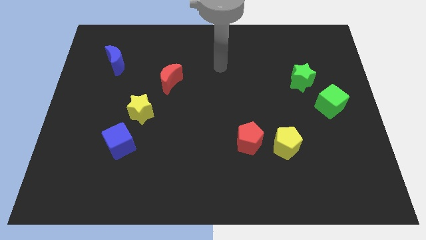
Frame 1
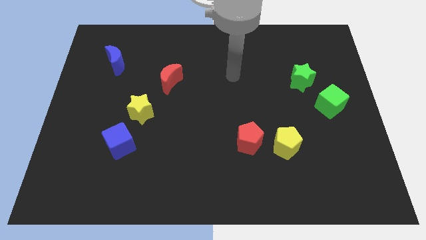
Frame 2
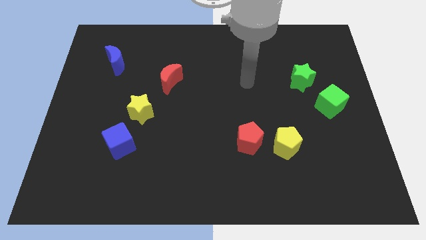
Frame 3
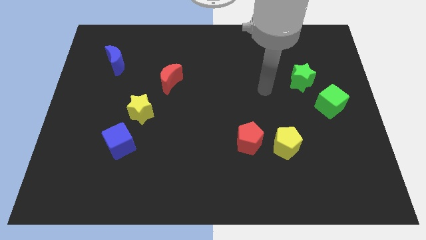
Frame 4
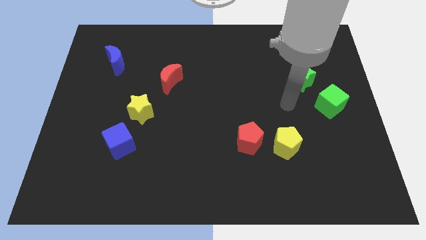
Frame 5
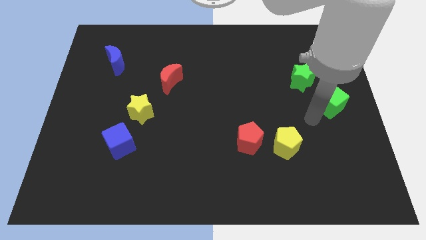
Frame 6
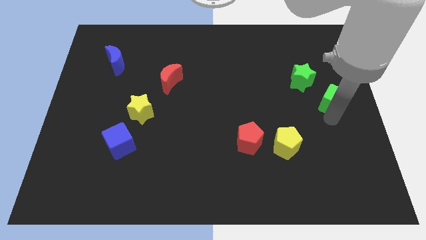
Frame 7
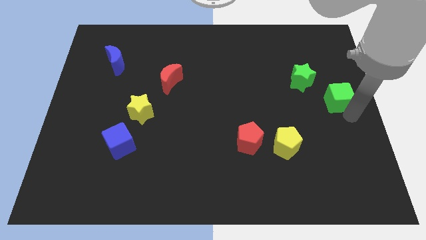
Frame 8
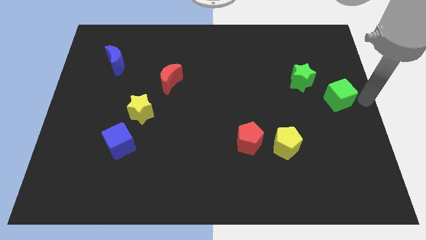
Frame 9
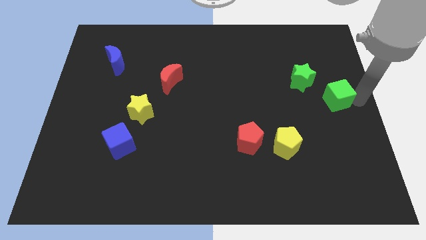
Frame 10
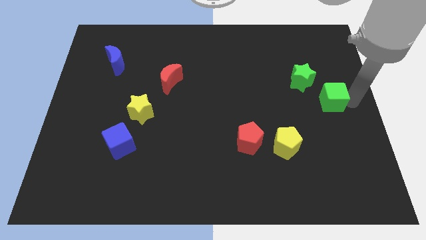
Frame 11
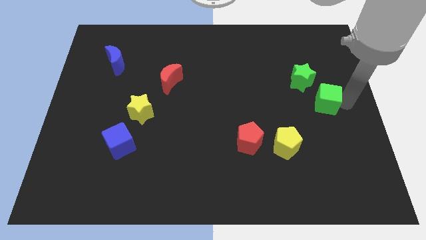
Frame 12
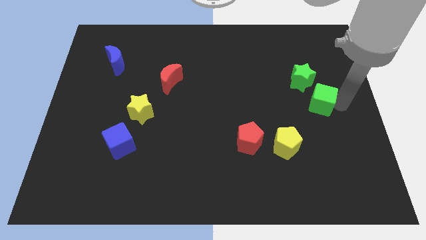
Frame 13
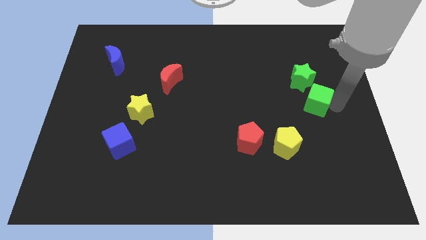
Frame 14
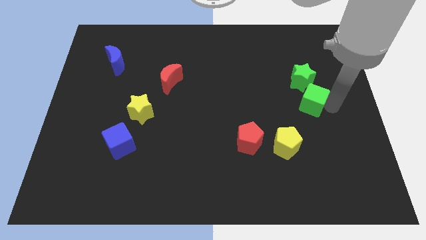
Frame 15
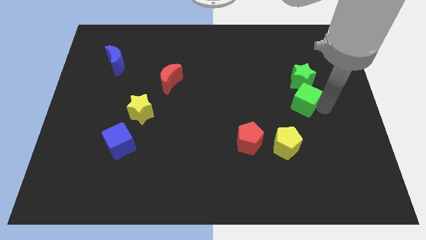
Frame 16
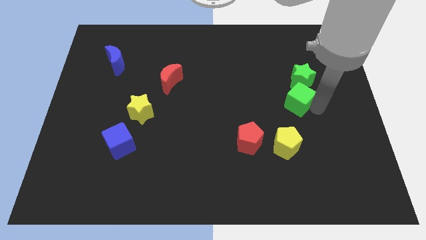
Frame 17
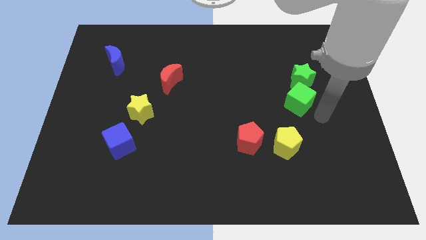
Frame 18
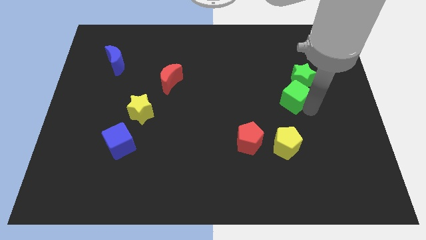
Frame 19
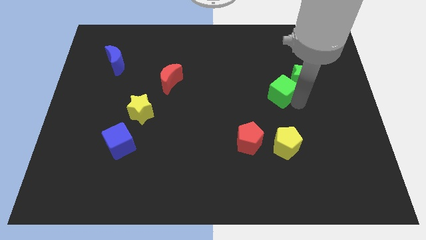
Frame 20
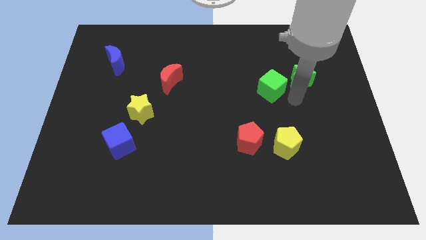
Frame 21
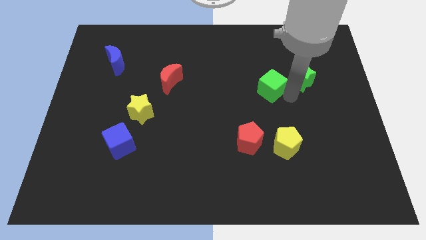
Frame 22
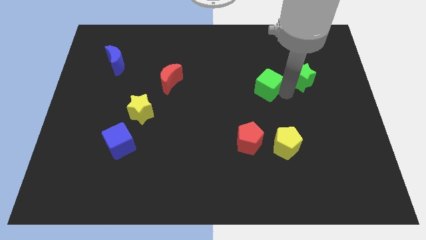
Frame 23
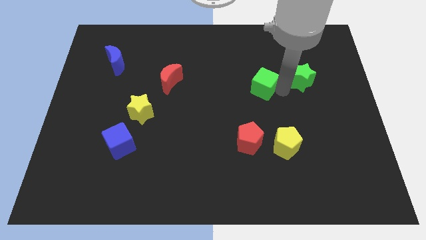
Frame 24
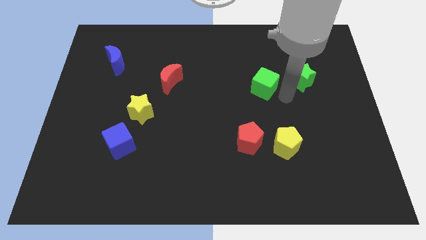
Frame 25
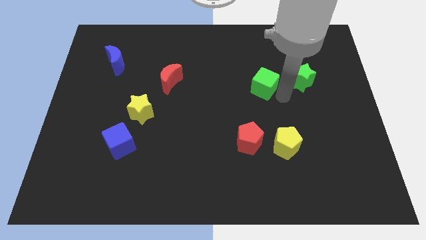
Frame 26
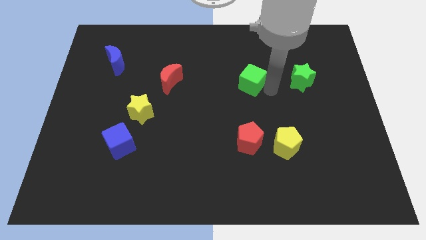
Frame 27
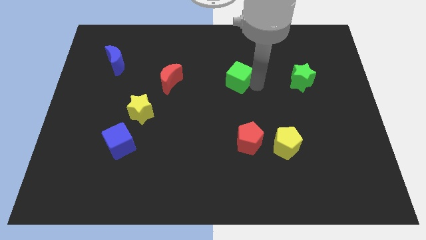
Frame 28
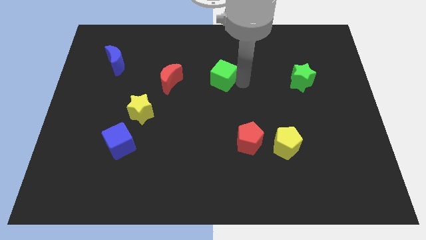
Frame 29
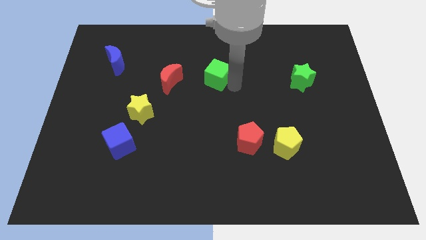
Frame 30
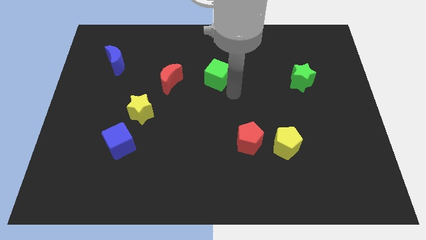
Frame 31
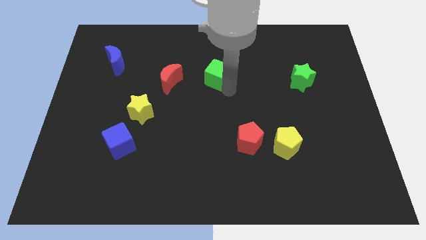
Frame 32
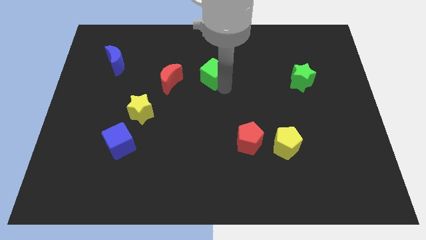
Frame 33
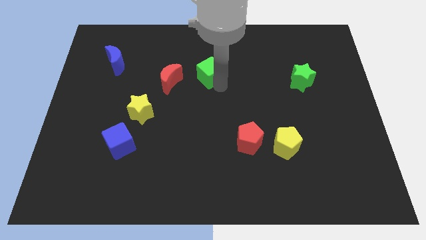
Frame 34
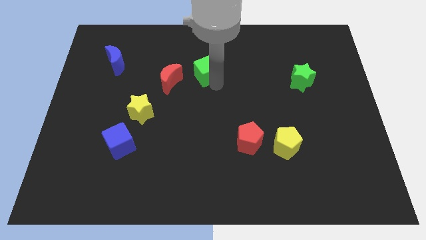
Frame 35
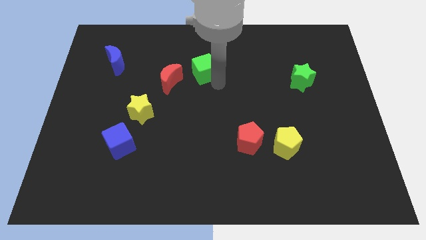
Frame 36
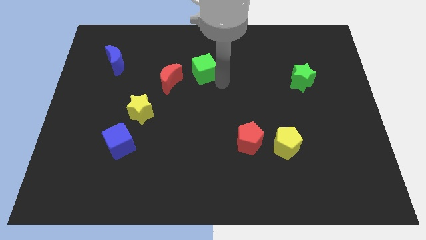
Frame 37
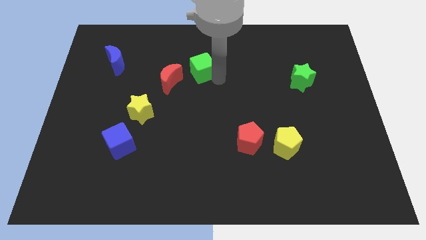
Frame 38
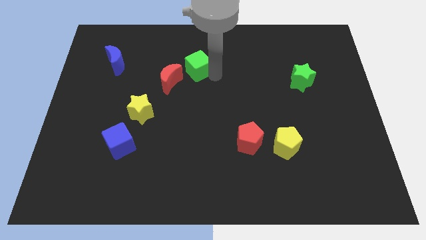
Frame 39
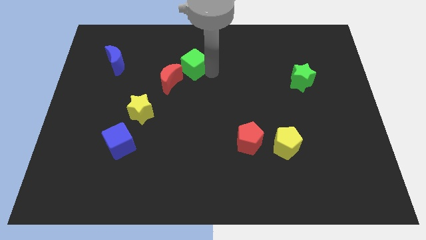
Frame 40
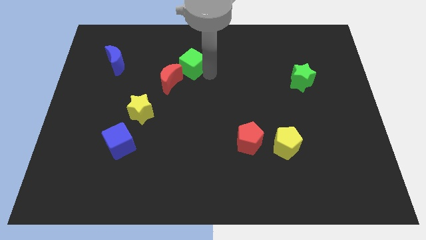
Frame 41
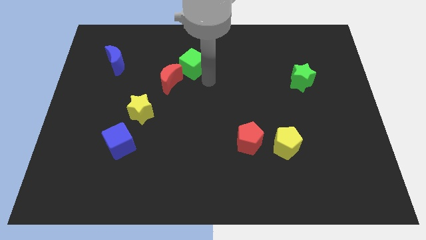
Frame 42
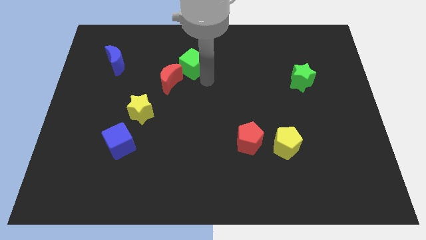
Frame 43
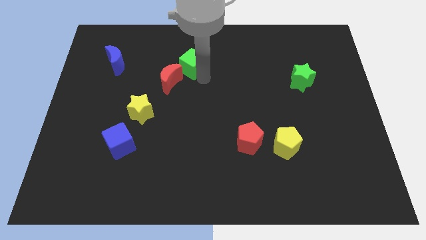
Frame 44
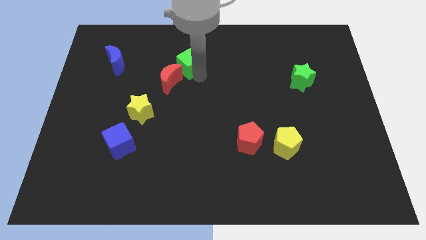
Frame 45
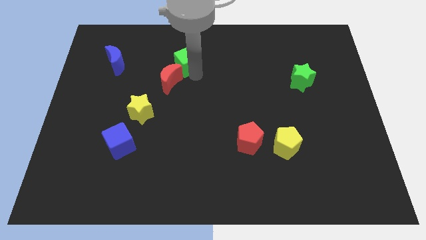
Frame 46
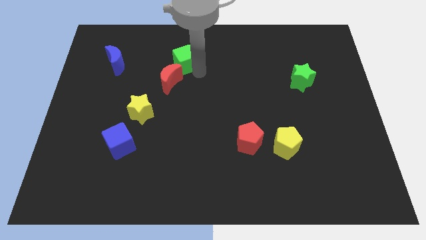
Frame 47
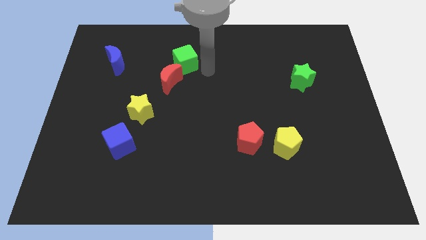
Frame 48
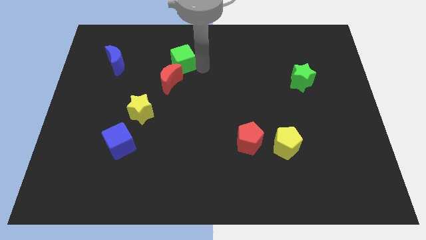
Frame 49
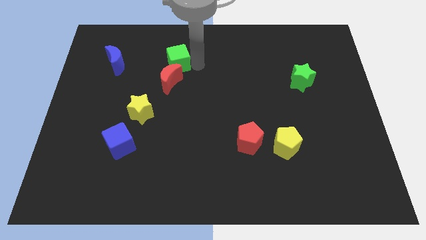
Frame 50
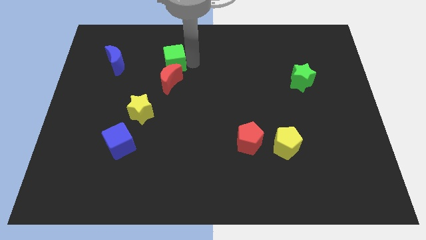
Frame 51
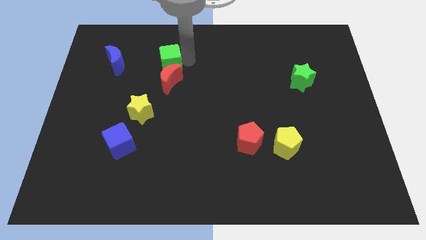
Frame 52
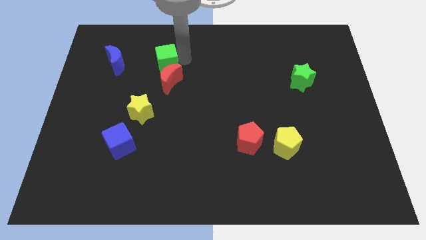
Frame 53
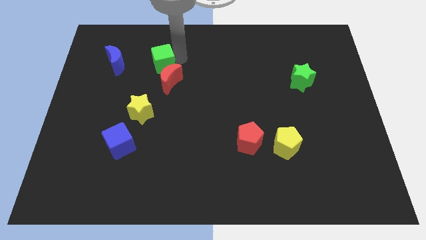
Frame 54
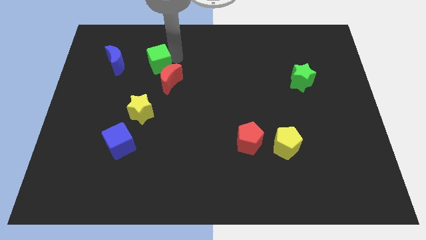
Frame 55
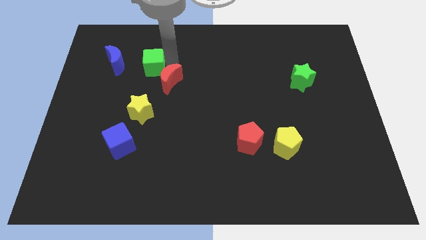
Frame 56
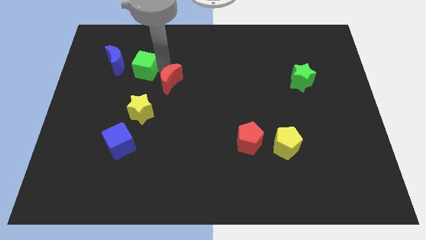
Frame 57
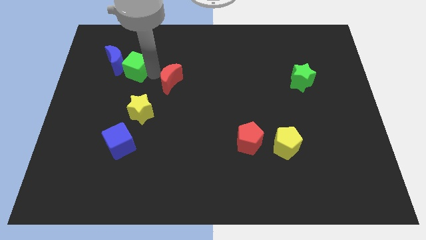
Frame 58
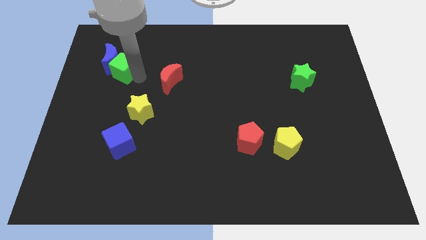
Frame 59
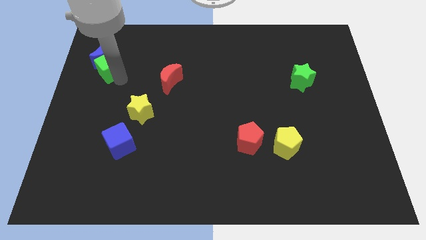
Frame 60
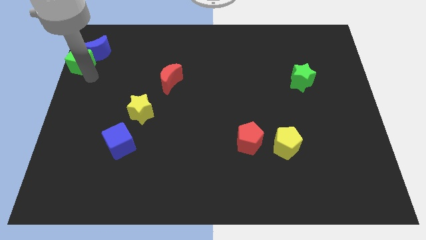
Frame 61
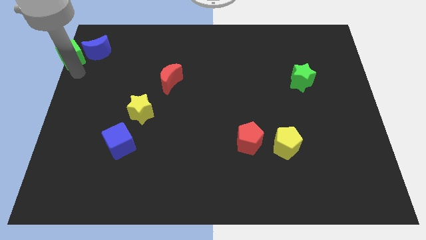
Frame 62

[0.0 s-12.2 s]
push the green cube to the upper left corner
